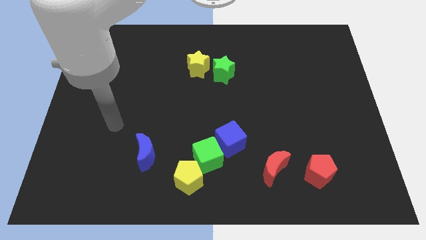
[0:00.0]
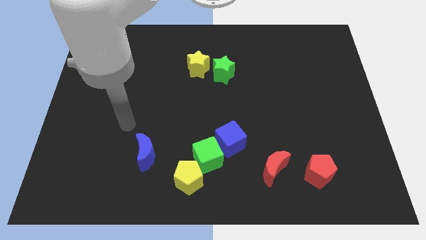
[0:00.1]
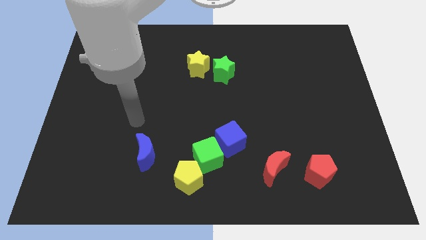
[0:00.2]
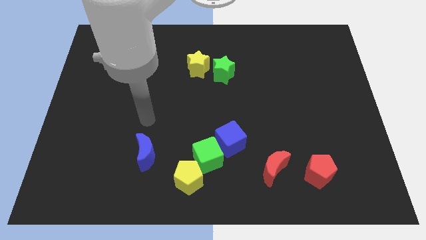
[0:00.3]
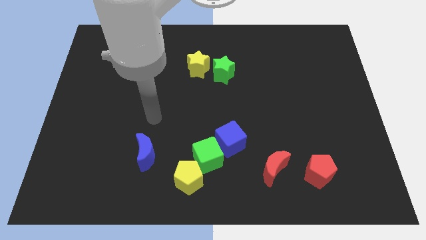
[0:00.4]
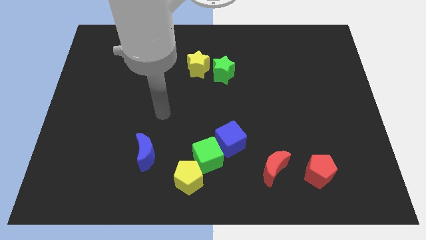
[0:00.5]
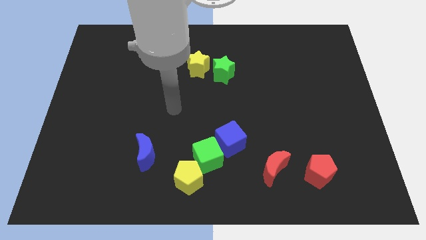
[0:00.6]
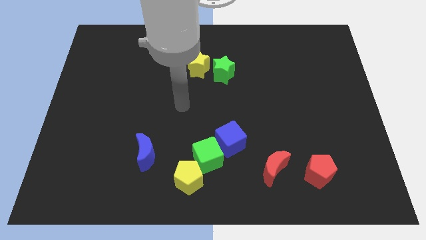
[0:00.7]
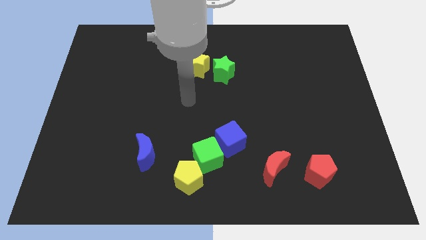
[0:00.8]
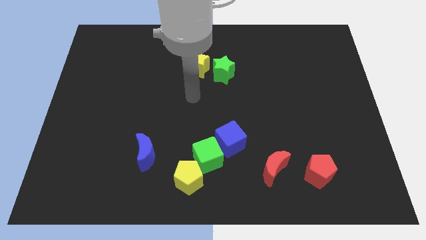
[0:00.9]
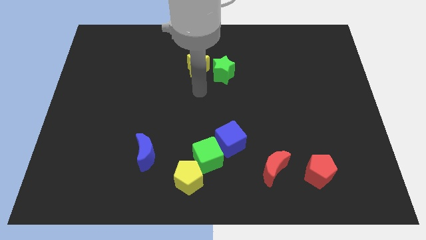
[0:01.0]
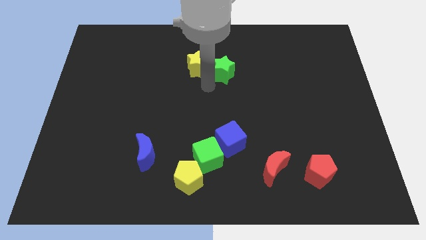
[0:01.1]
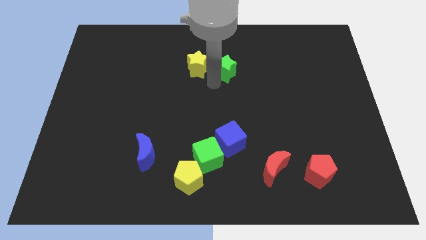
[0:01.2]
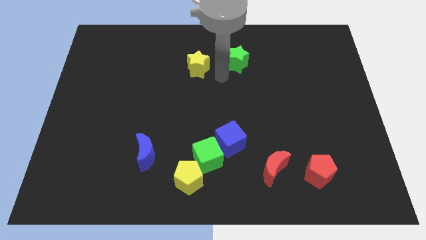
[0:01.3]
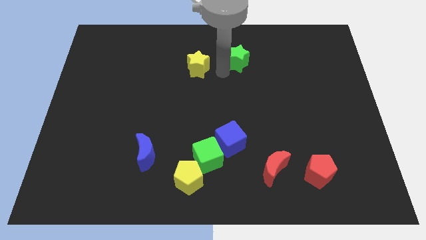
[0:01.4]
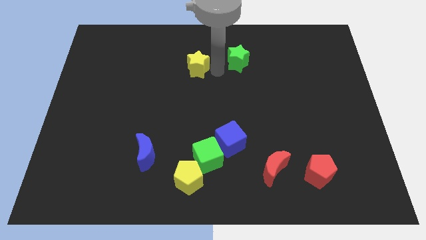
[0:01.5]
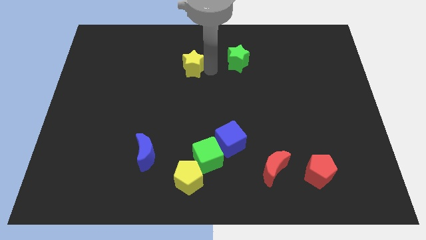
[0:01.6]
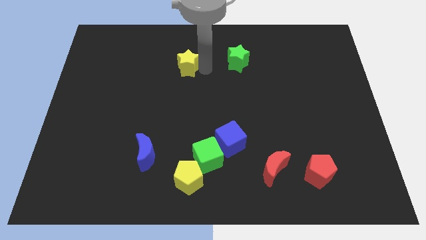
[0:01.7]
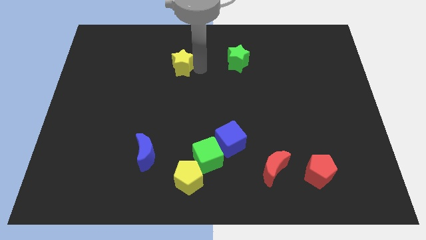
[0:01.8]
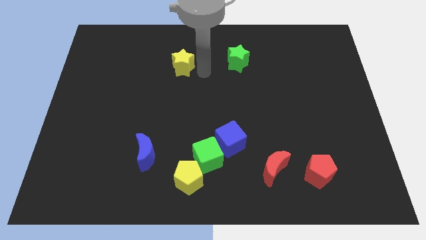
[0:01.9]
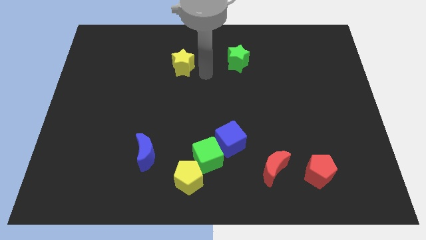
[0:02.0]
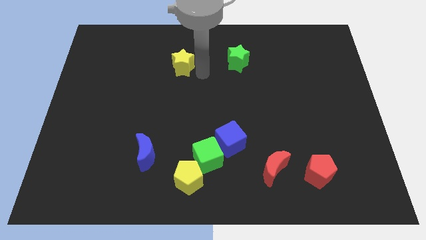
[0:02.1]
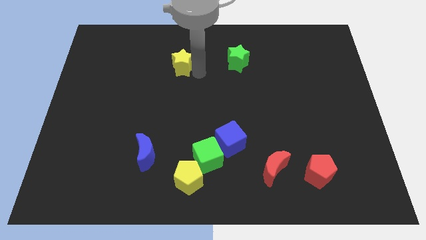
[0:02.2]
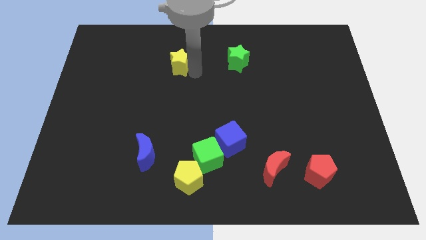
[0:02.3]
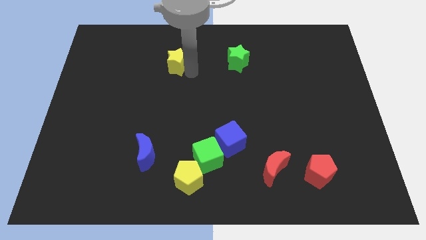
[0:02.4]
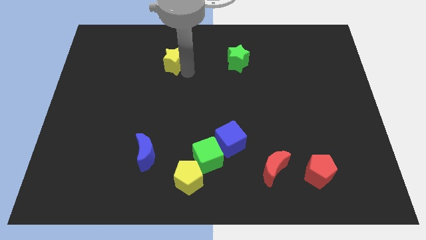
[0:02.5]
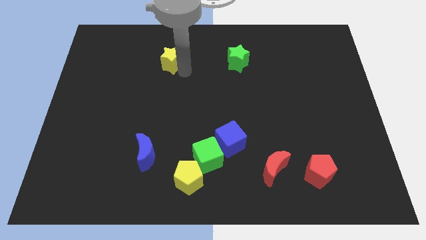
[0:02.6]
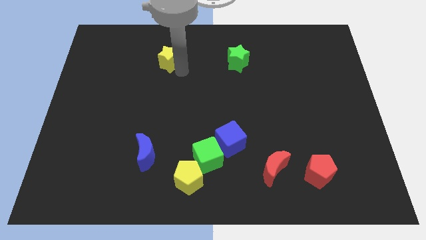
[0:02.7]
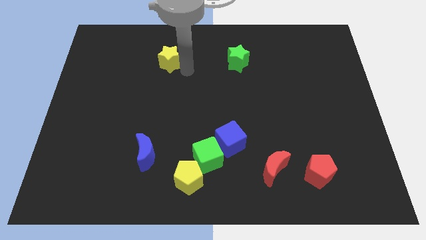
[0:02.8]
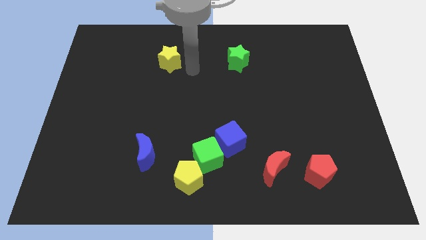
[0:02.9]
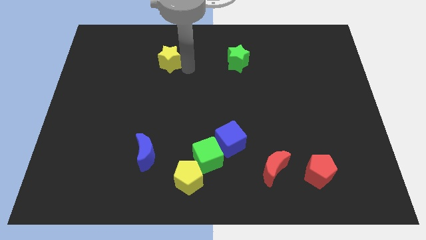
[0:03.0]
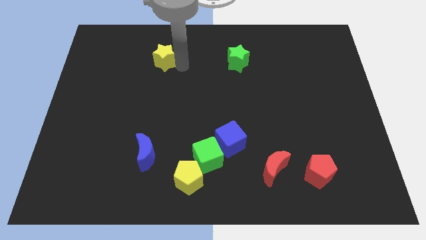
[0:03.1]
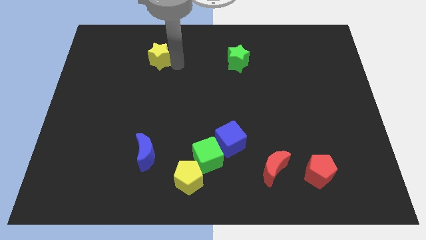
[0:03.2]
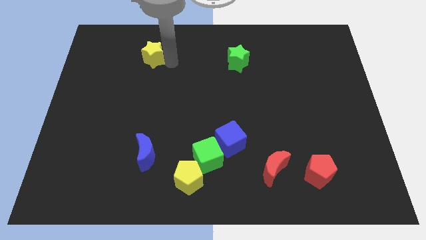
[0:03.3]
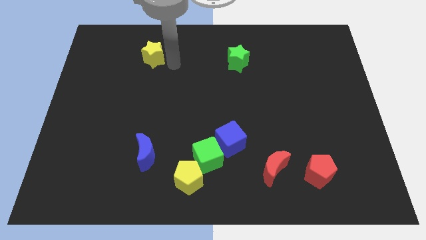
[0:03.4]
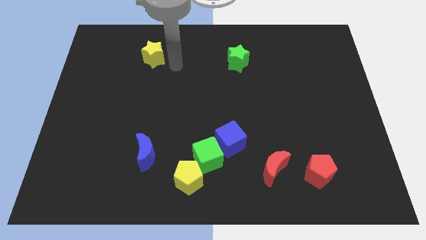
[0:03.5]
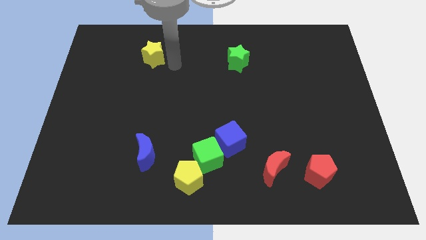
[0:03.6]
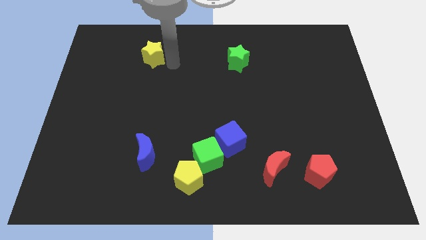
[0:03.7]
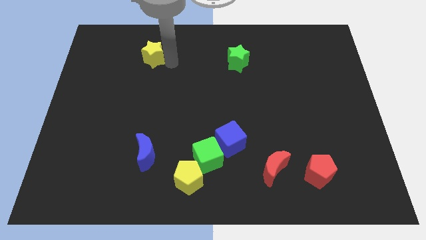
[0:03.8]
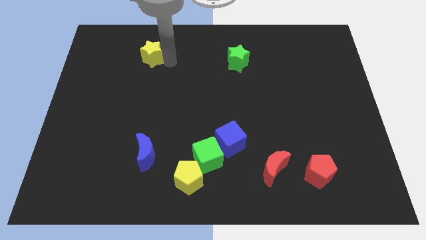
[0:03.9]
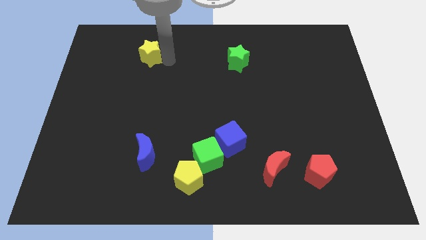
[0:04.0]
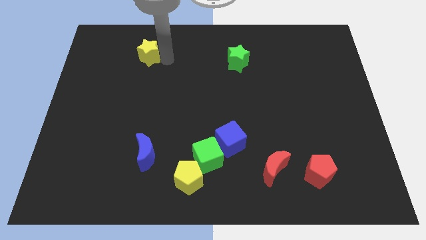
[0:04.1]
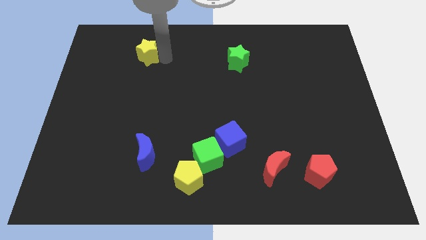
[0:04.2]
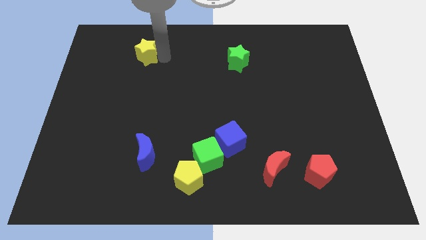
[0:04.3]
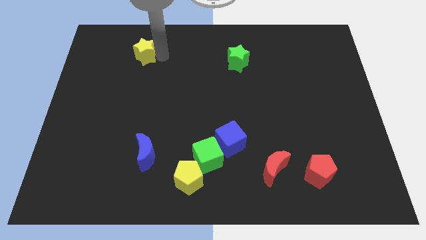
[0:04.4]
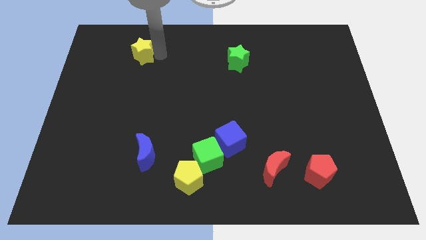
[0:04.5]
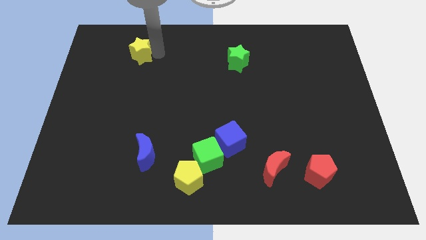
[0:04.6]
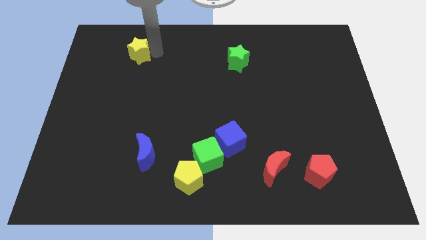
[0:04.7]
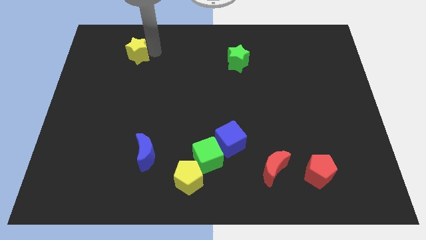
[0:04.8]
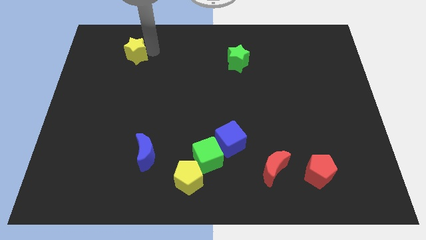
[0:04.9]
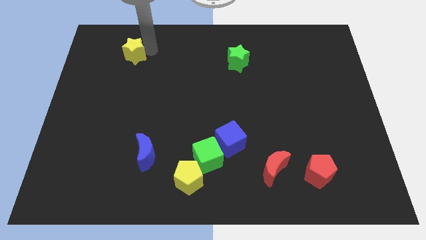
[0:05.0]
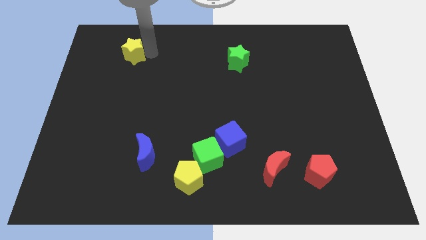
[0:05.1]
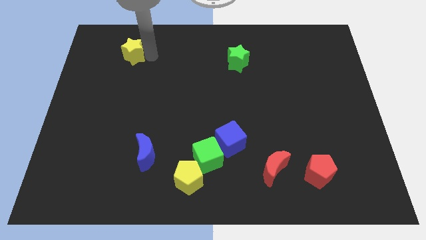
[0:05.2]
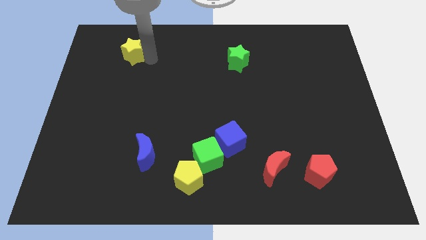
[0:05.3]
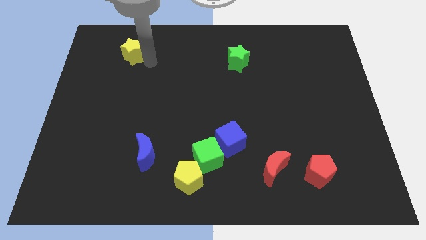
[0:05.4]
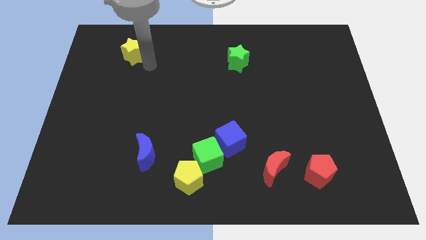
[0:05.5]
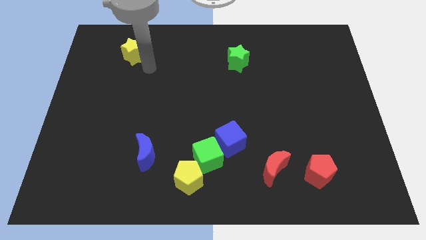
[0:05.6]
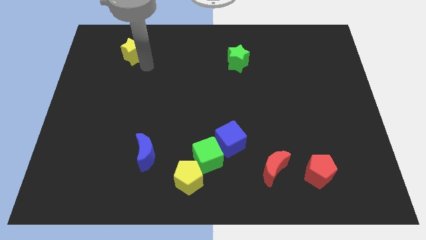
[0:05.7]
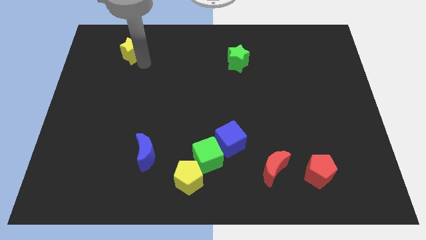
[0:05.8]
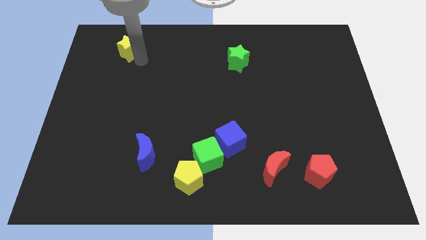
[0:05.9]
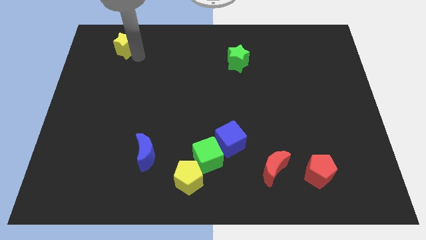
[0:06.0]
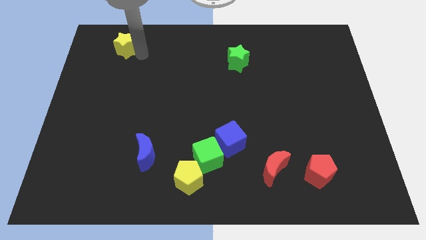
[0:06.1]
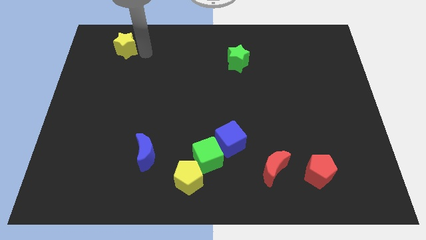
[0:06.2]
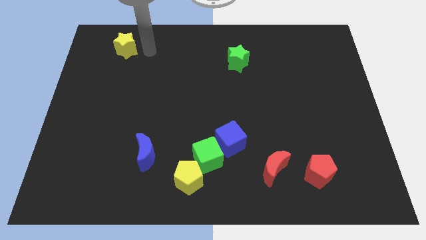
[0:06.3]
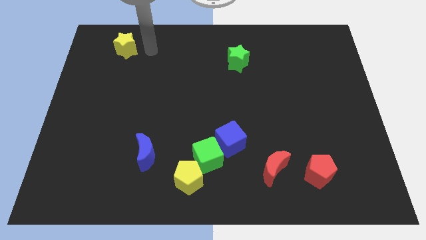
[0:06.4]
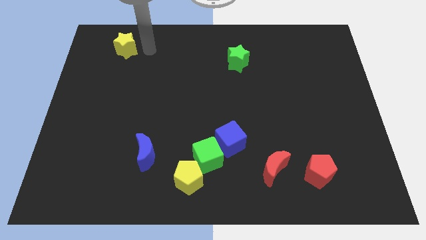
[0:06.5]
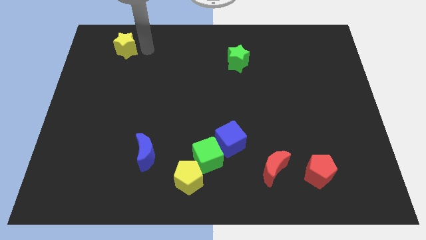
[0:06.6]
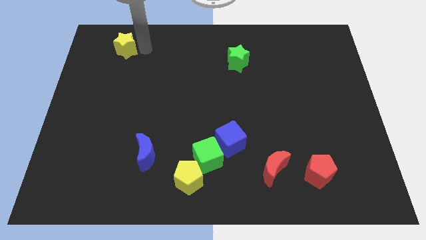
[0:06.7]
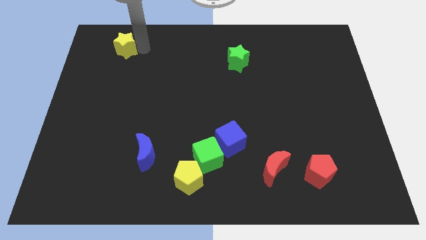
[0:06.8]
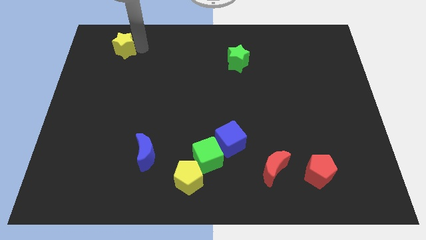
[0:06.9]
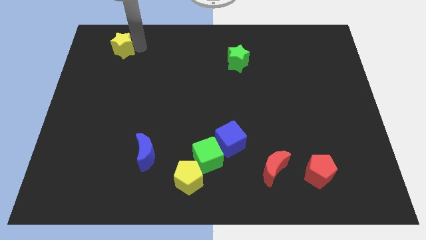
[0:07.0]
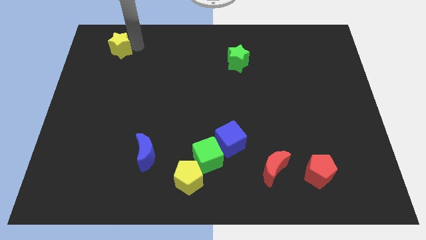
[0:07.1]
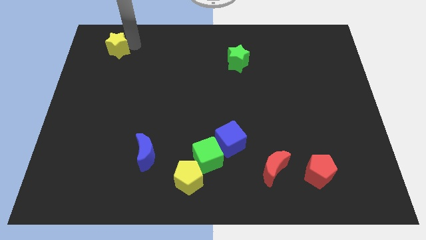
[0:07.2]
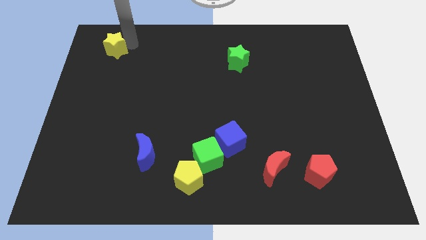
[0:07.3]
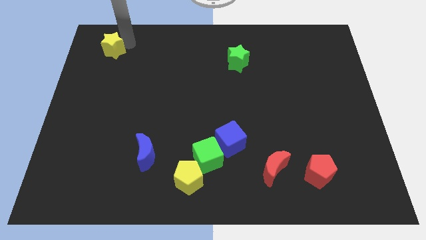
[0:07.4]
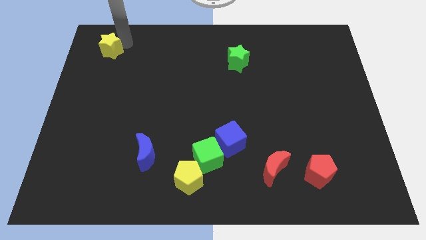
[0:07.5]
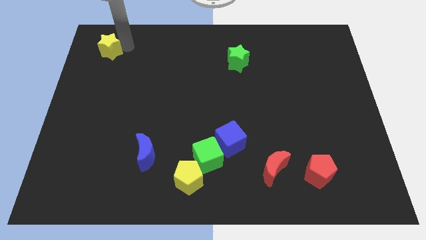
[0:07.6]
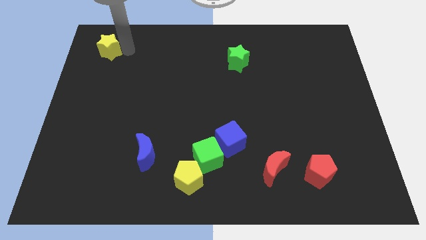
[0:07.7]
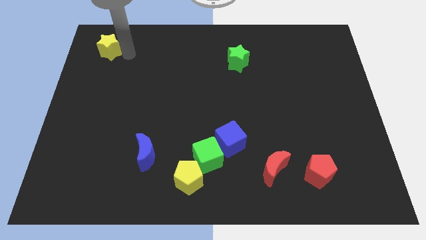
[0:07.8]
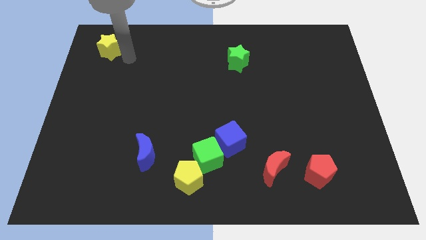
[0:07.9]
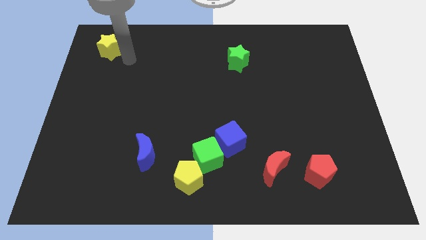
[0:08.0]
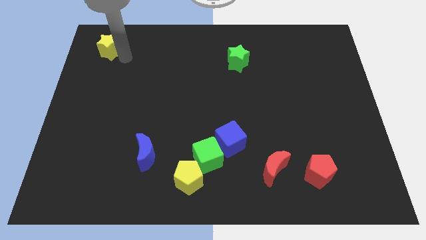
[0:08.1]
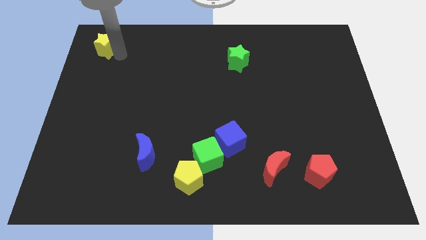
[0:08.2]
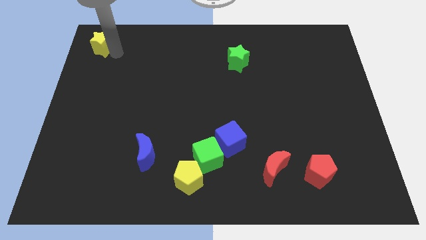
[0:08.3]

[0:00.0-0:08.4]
move the yellow star to the top left of the board
